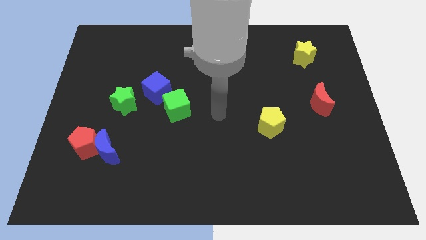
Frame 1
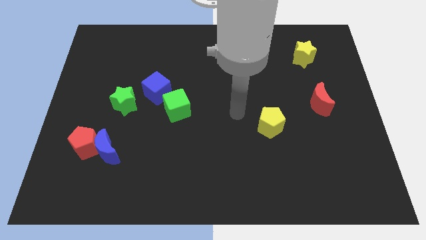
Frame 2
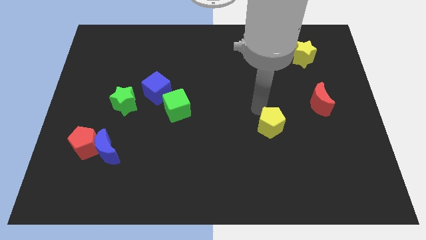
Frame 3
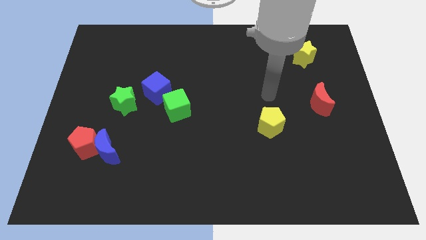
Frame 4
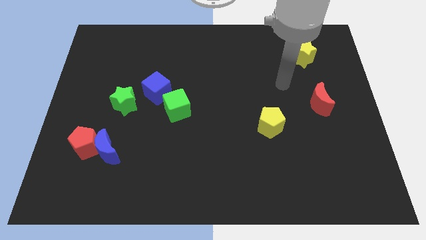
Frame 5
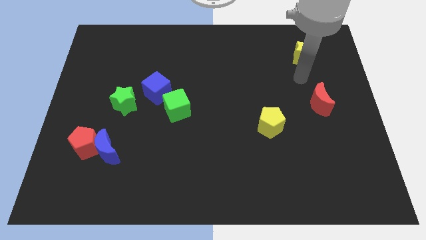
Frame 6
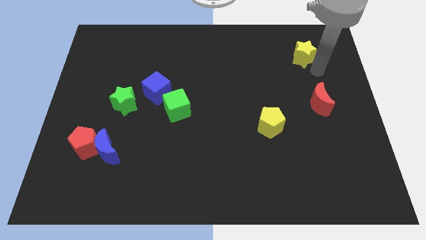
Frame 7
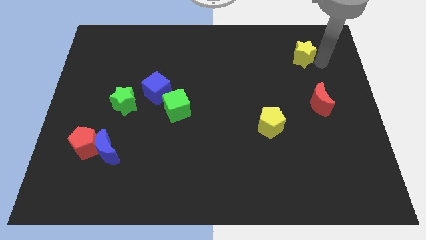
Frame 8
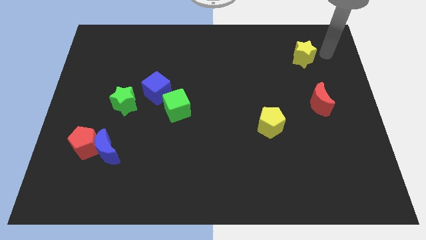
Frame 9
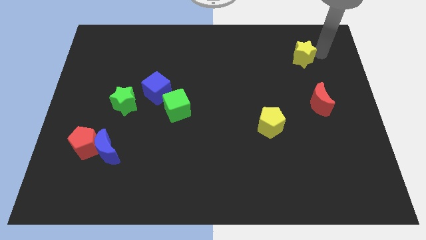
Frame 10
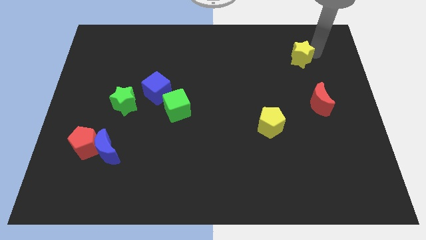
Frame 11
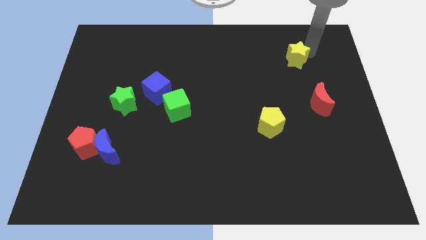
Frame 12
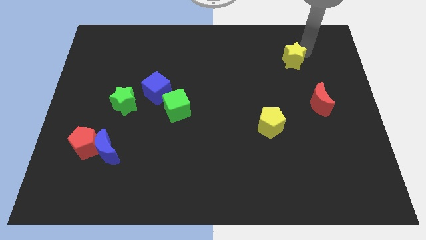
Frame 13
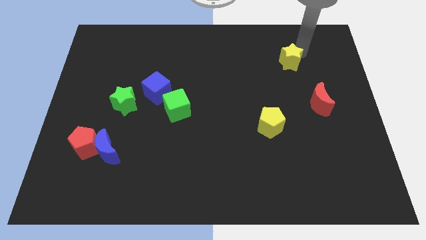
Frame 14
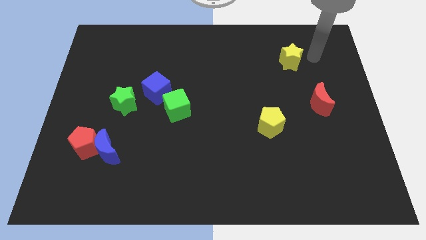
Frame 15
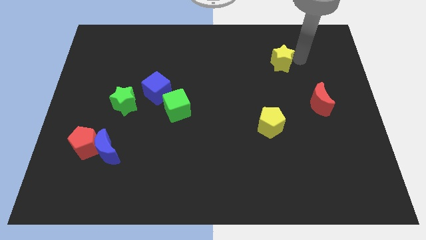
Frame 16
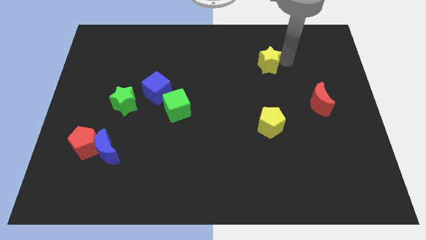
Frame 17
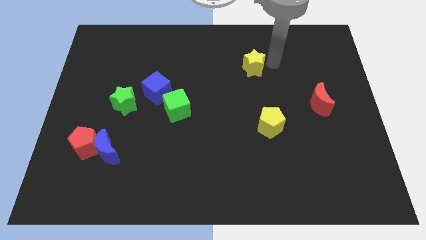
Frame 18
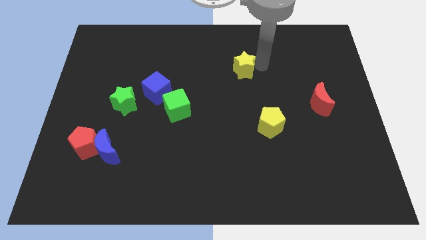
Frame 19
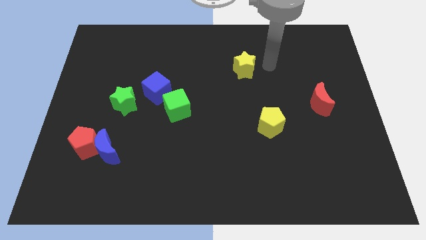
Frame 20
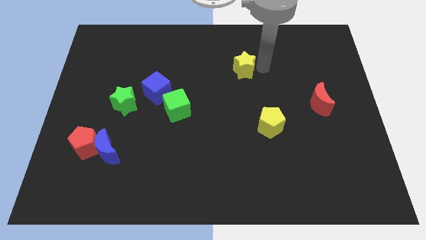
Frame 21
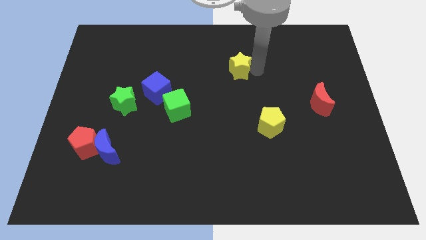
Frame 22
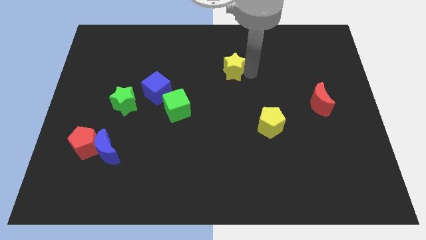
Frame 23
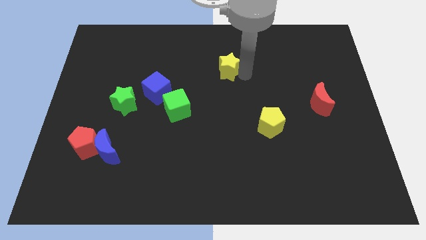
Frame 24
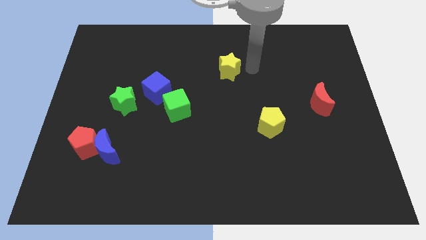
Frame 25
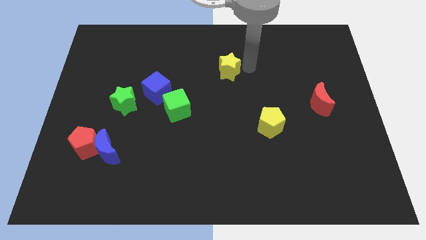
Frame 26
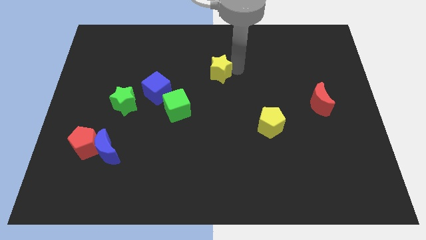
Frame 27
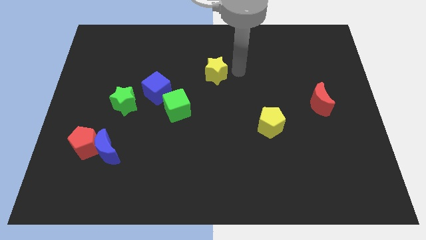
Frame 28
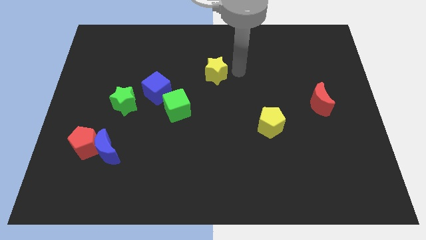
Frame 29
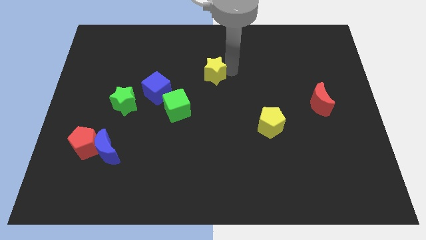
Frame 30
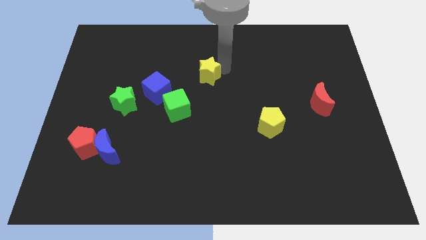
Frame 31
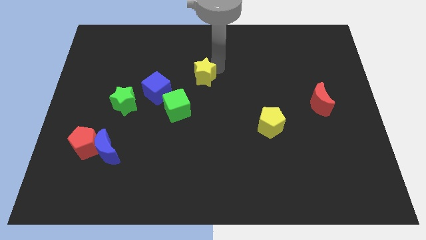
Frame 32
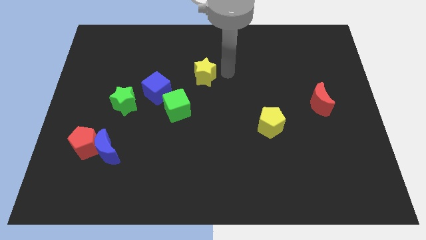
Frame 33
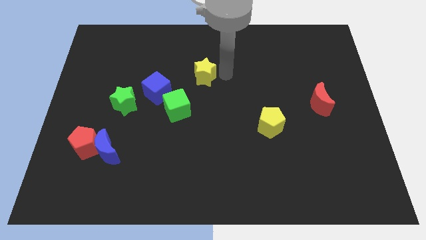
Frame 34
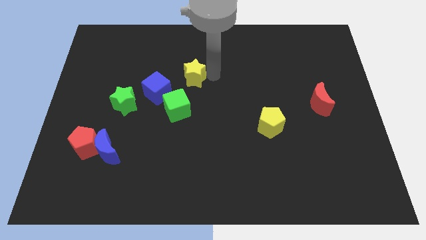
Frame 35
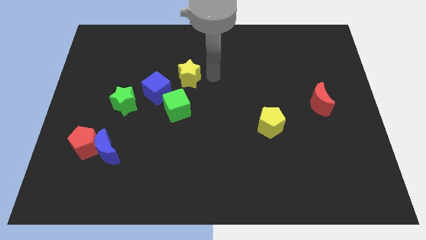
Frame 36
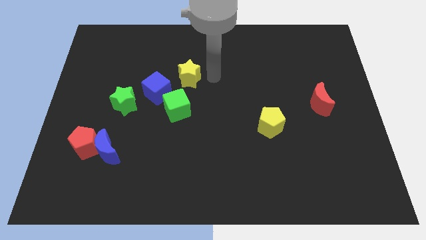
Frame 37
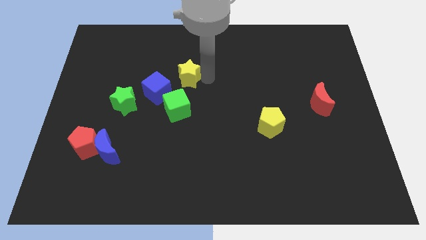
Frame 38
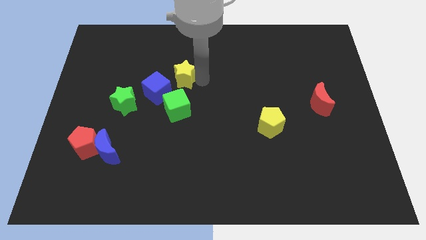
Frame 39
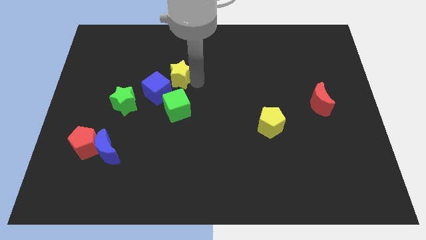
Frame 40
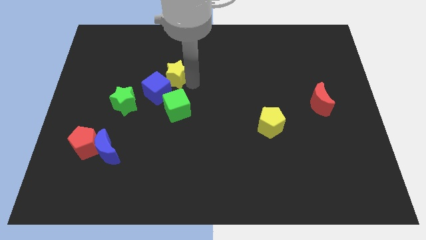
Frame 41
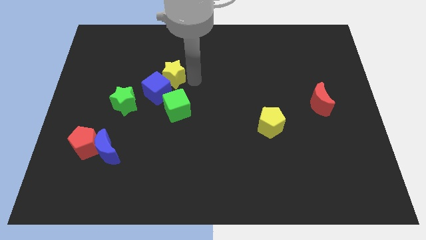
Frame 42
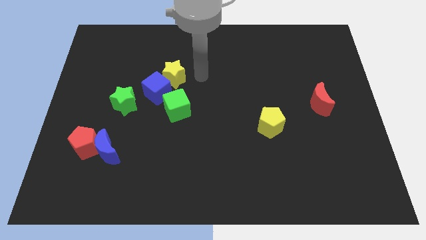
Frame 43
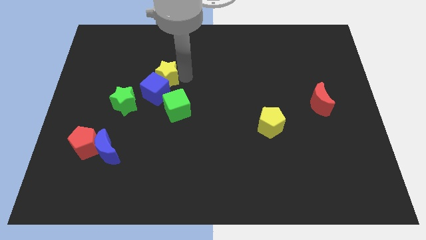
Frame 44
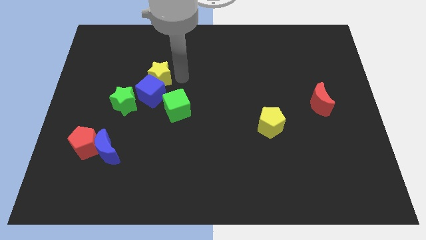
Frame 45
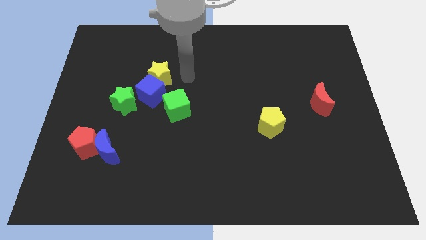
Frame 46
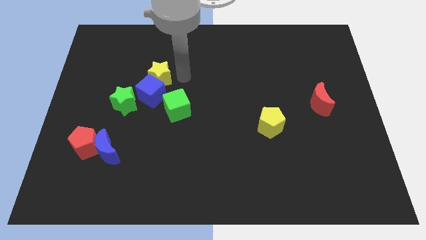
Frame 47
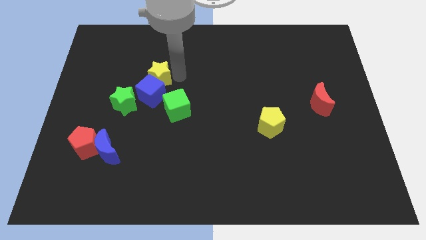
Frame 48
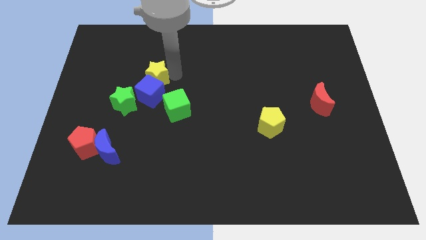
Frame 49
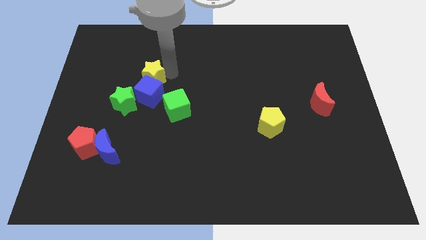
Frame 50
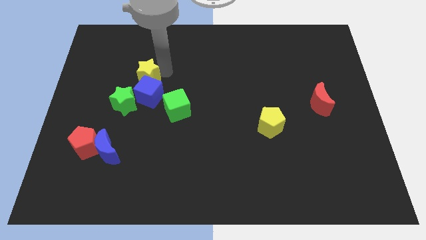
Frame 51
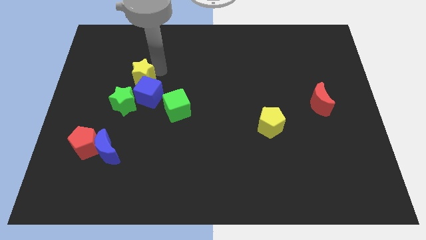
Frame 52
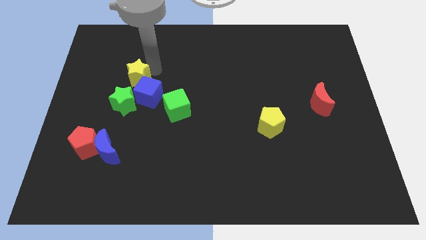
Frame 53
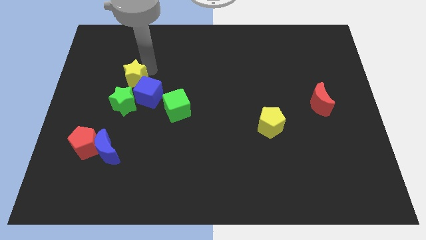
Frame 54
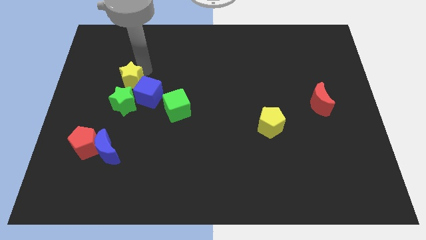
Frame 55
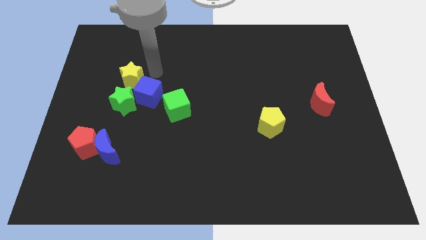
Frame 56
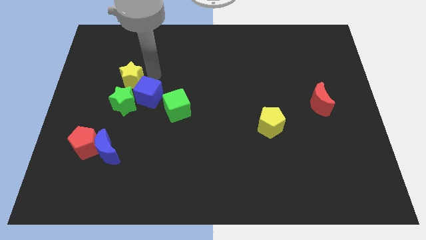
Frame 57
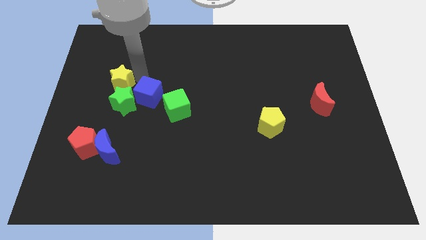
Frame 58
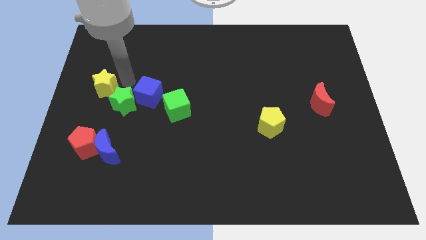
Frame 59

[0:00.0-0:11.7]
move the yellow star to the left side
